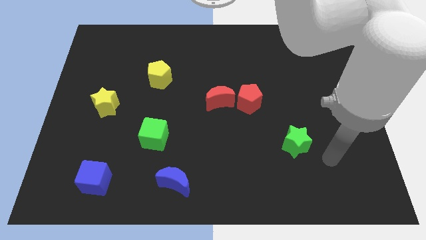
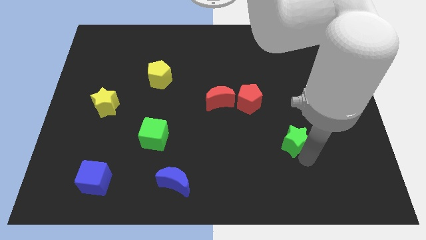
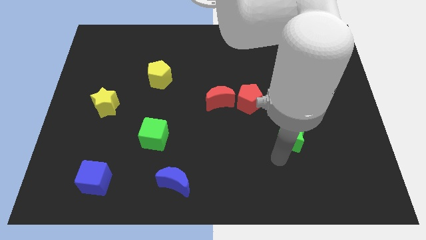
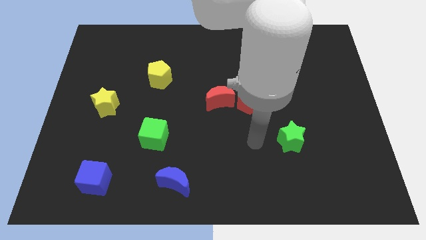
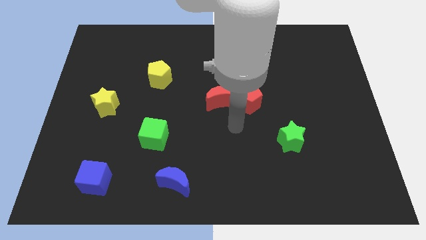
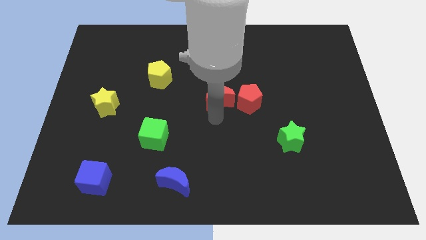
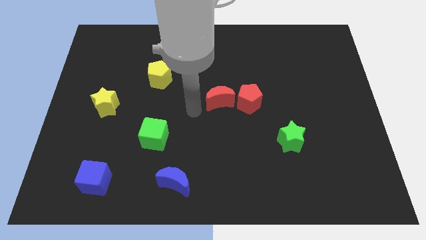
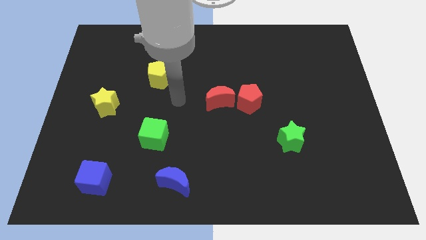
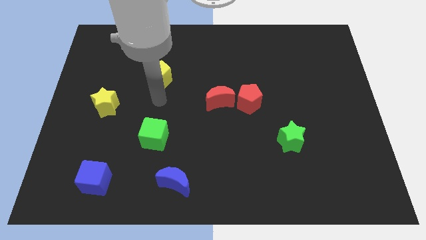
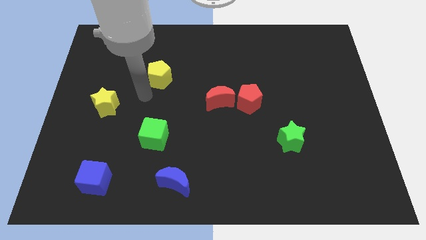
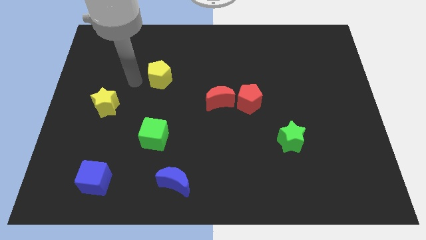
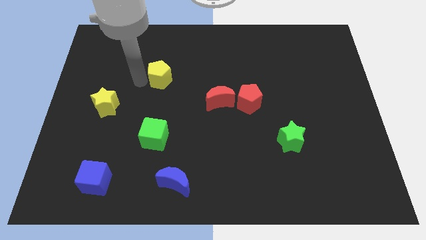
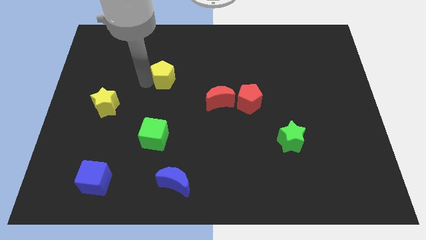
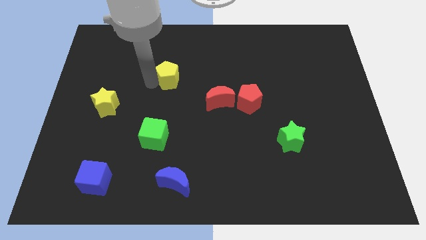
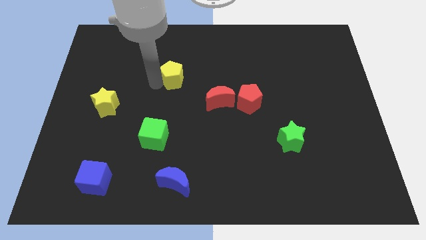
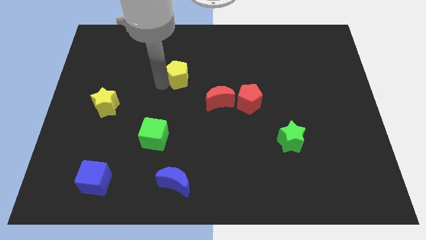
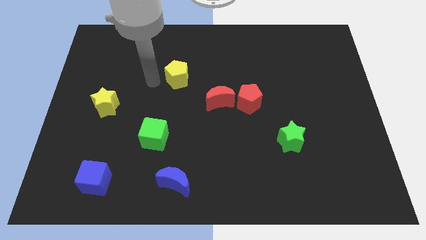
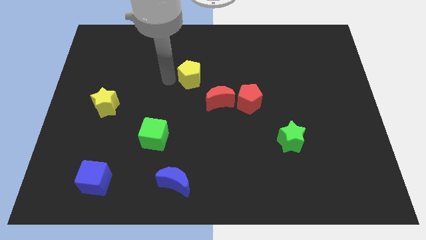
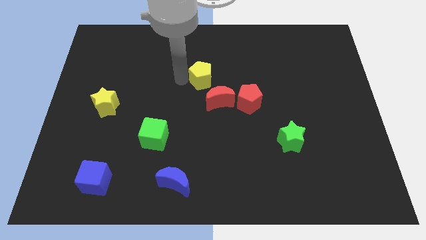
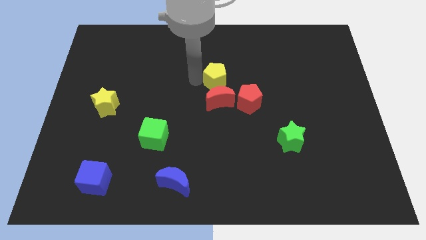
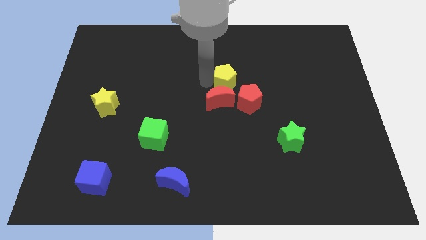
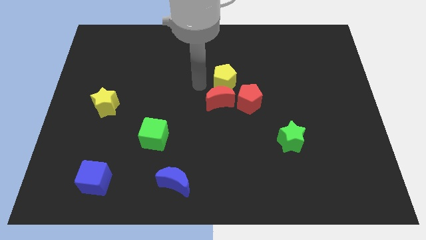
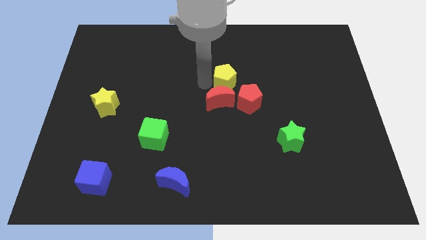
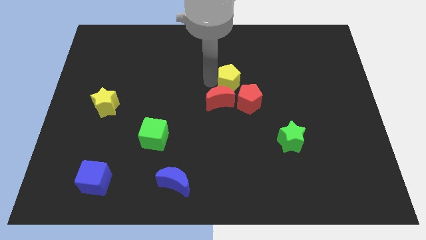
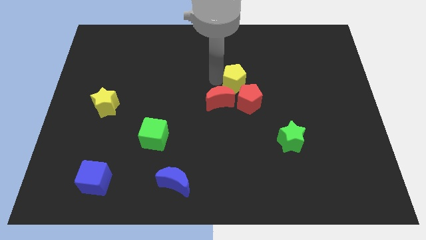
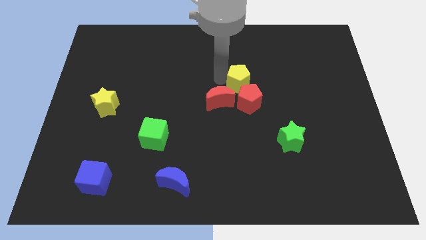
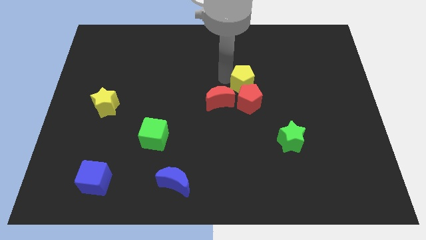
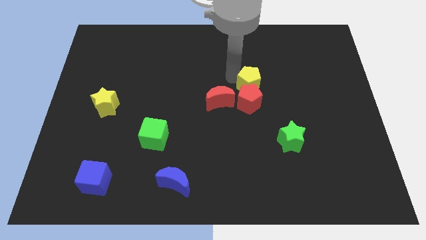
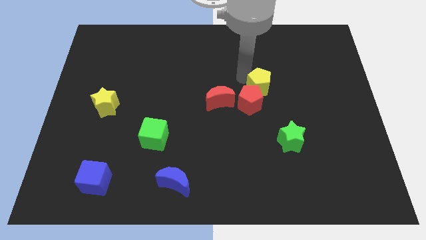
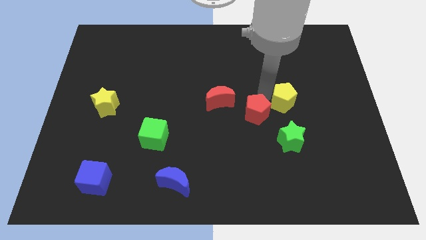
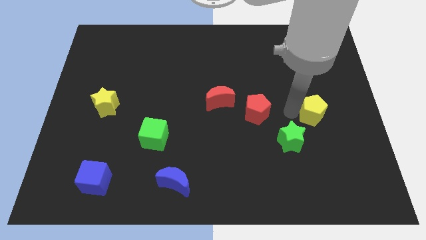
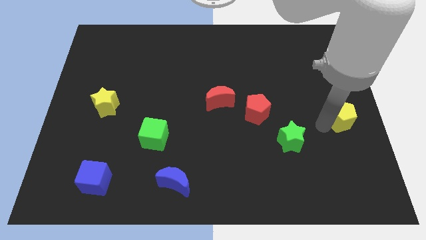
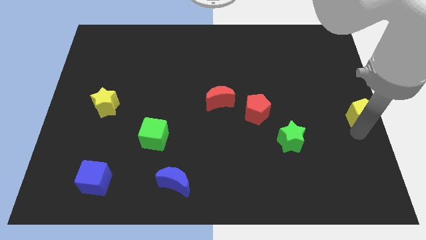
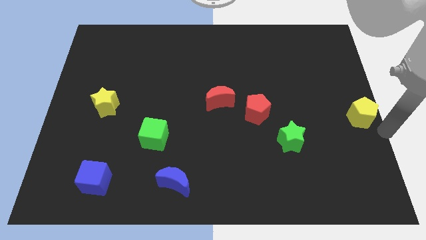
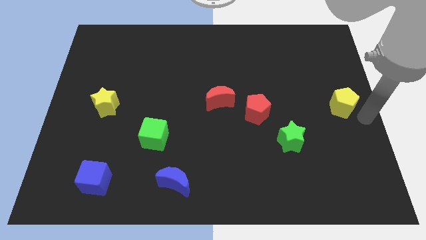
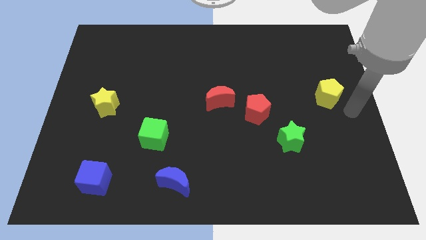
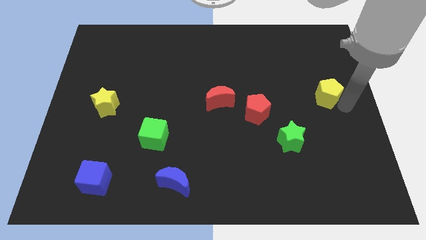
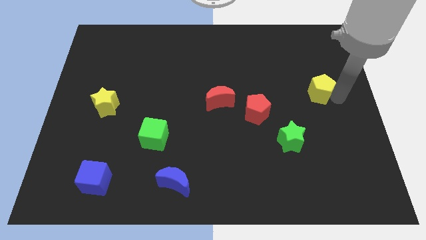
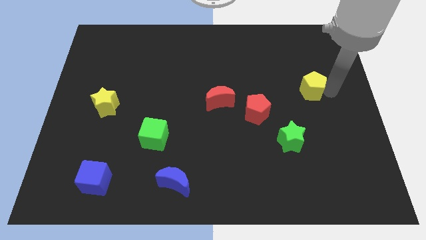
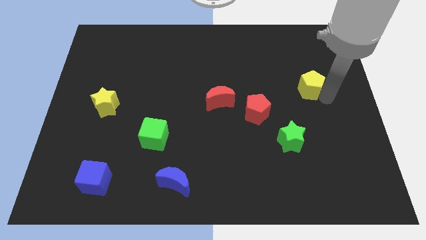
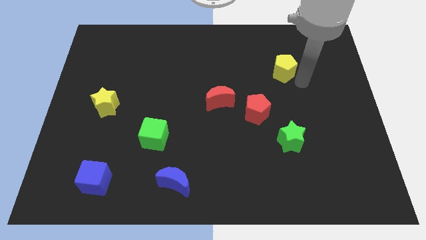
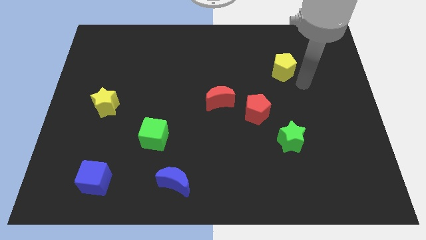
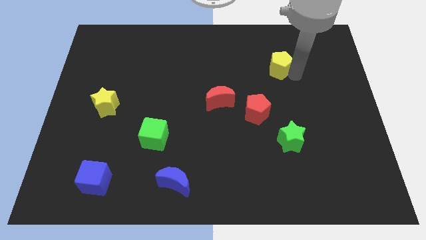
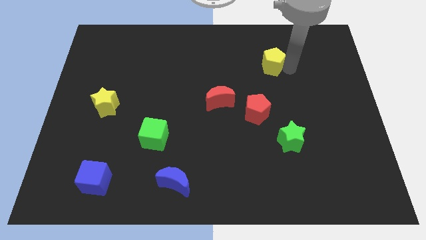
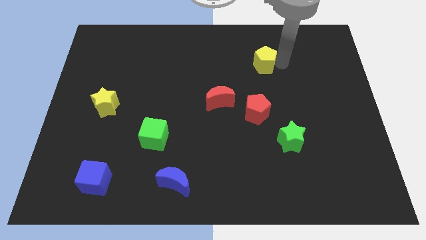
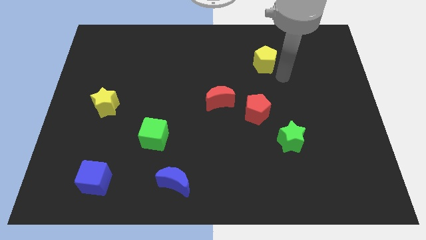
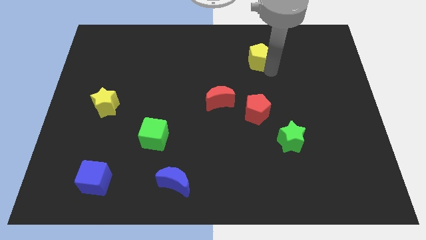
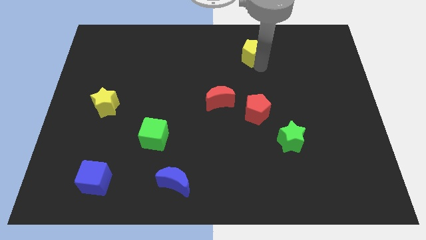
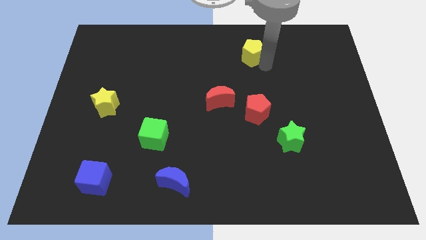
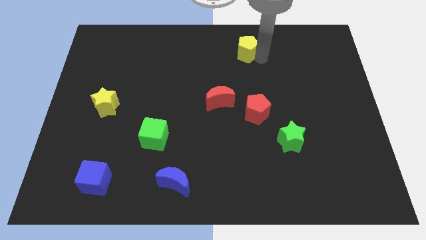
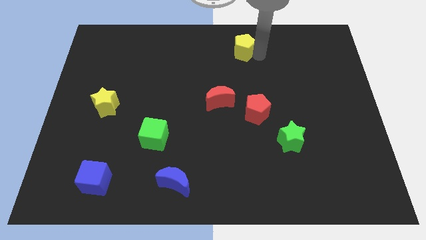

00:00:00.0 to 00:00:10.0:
slide the yellow pentagon to the top

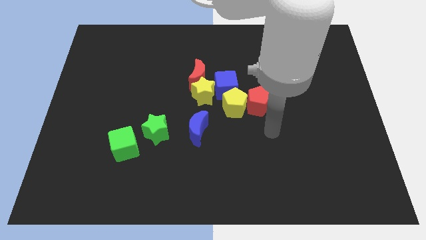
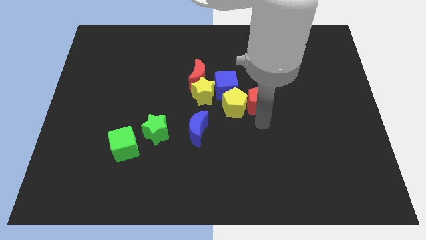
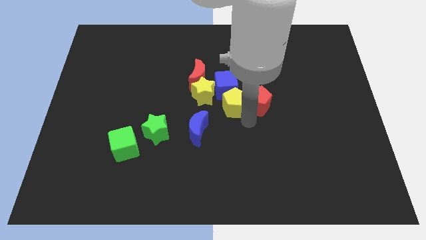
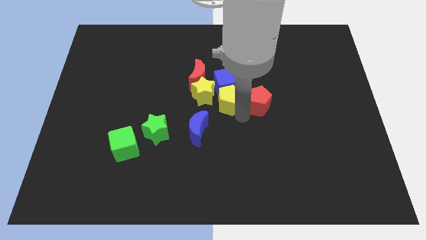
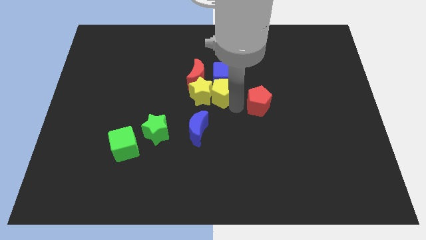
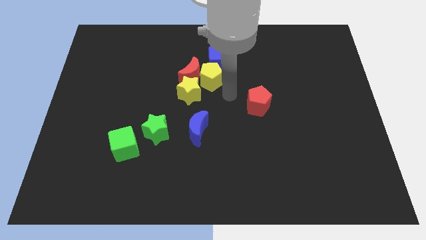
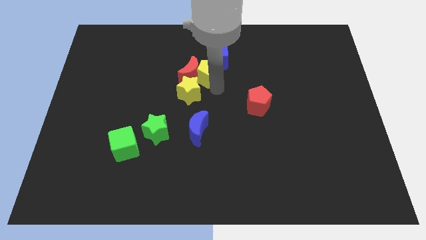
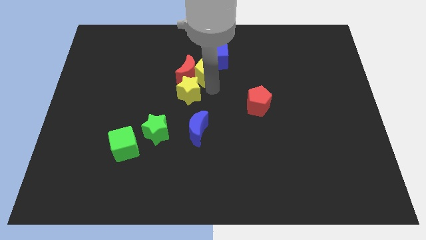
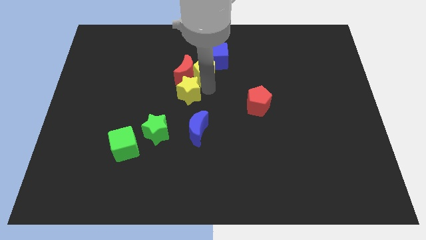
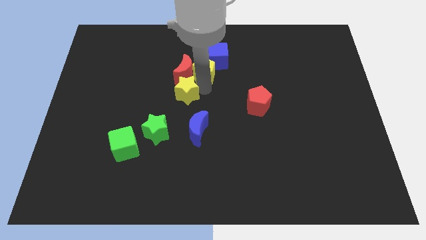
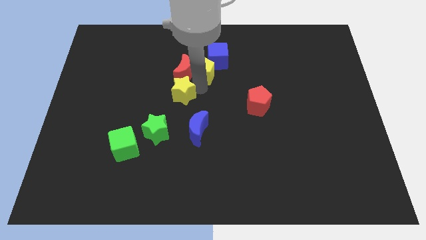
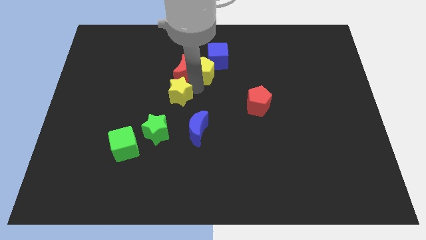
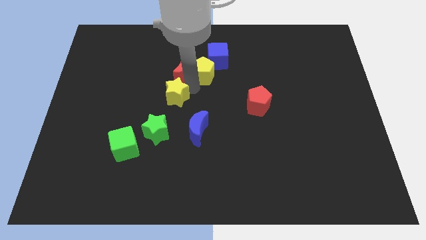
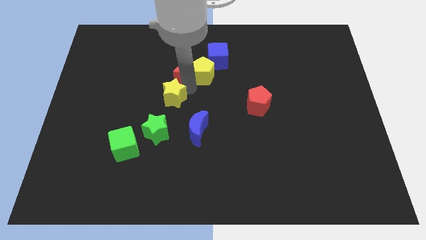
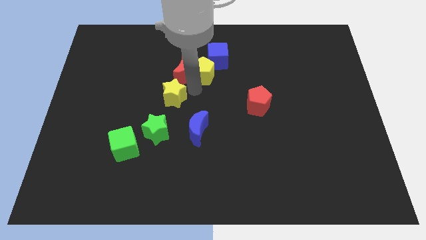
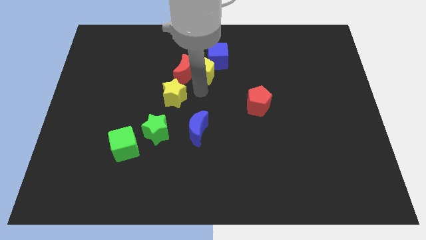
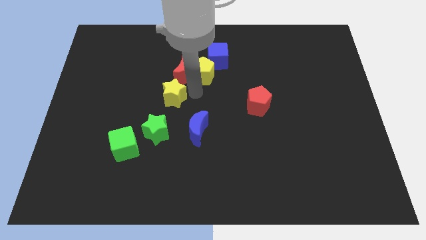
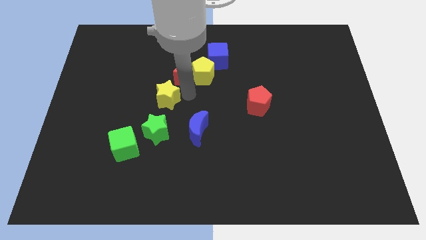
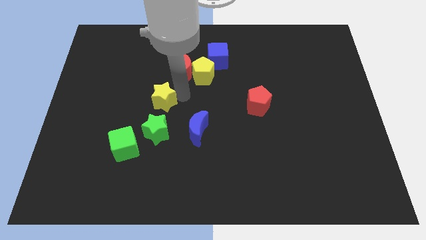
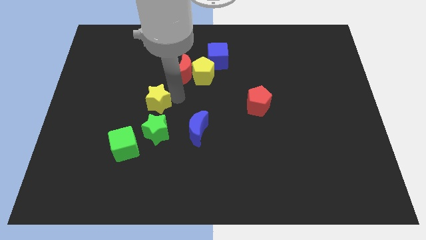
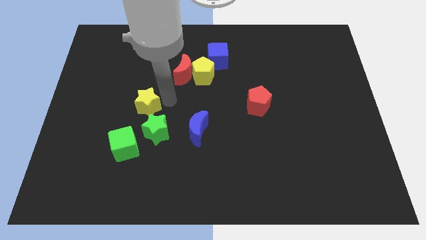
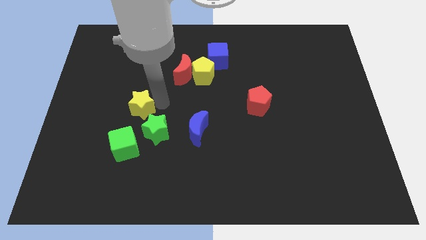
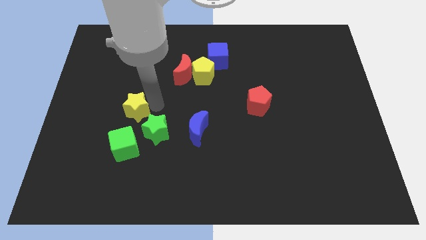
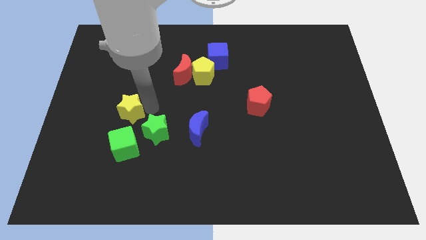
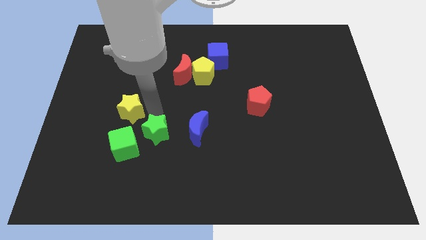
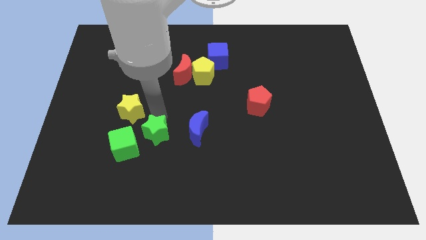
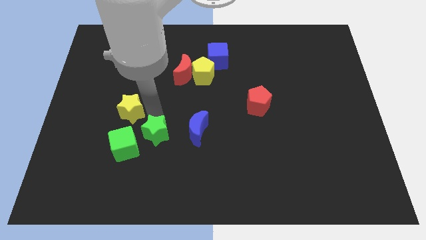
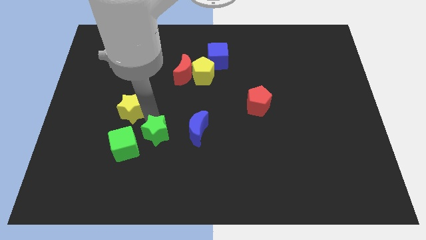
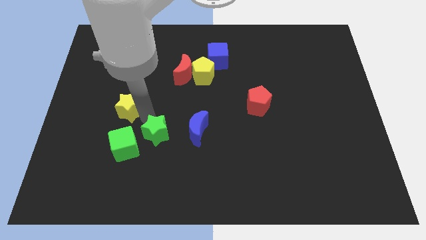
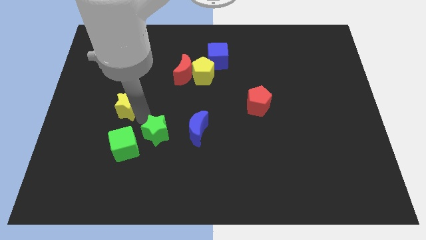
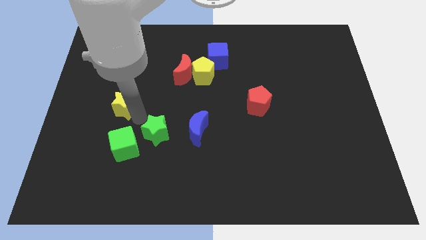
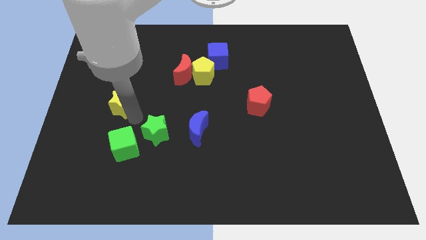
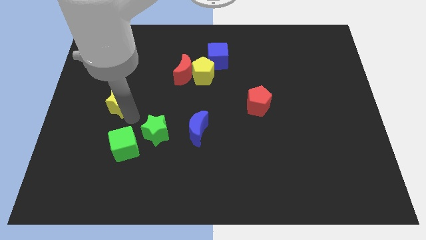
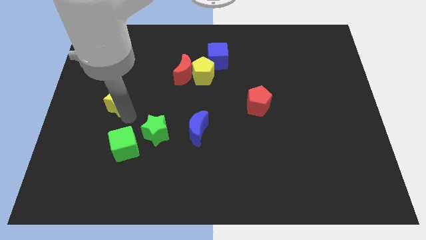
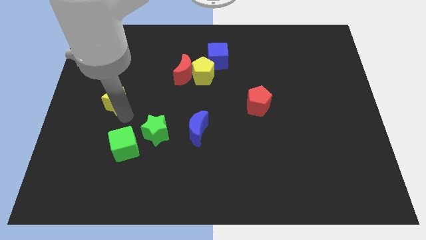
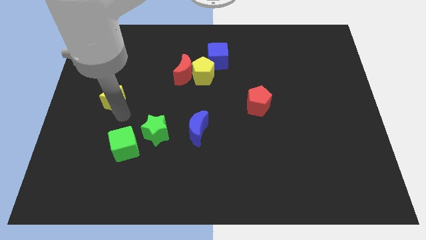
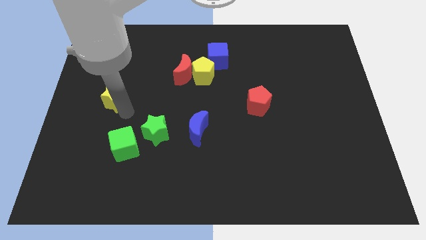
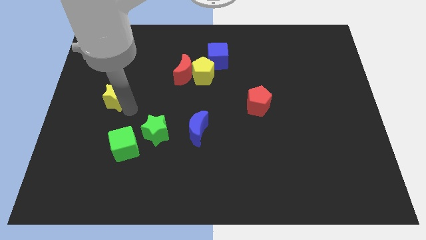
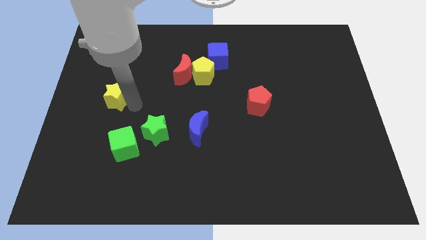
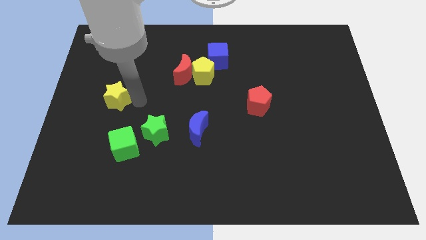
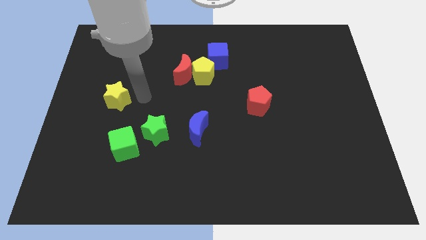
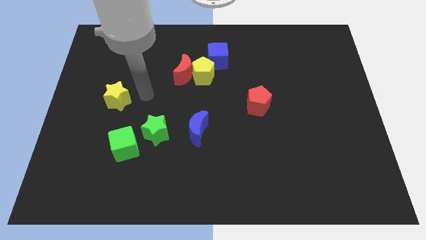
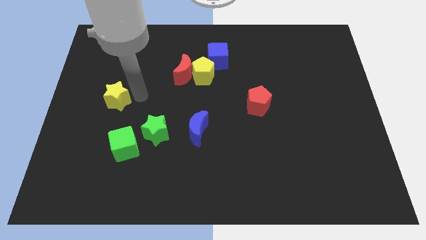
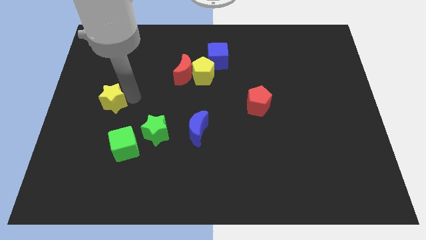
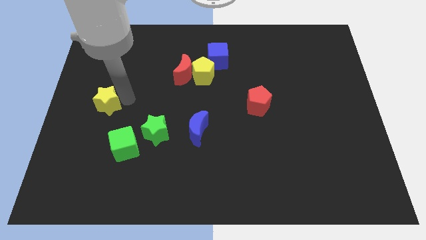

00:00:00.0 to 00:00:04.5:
put the yellow star to the left side
